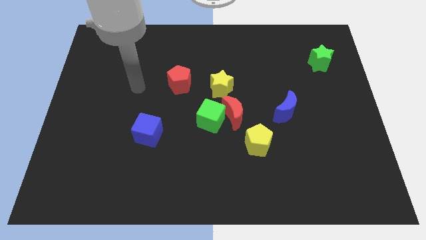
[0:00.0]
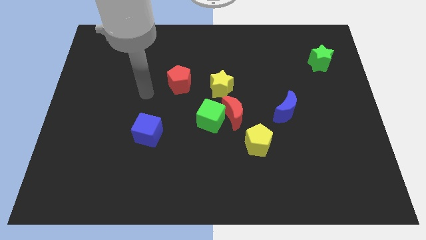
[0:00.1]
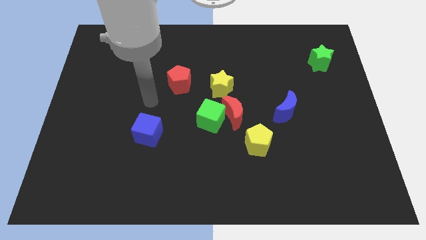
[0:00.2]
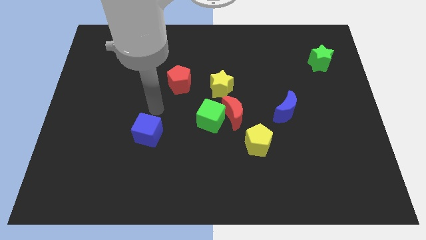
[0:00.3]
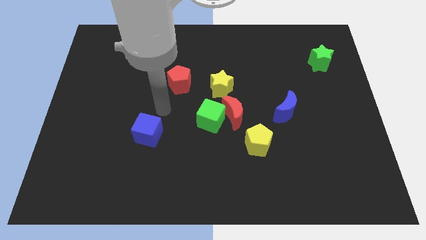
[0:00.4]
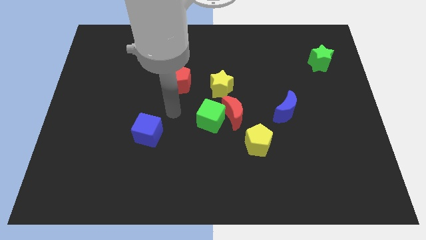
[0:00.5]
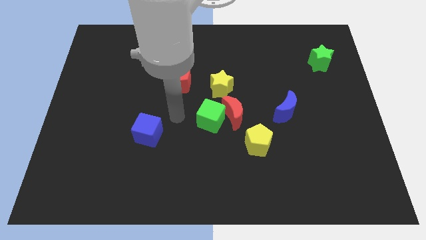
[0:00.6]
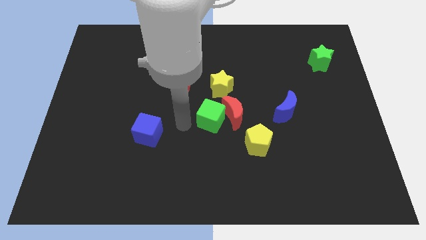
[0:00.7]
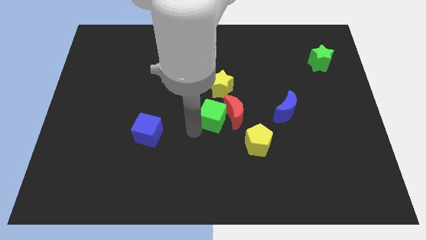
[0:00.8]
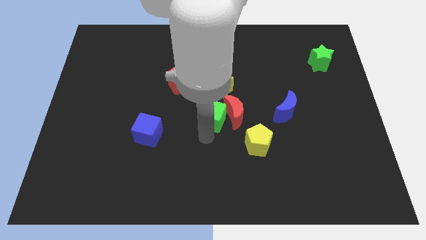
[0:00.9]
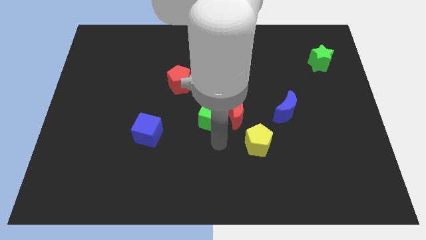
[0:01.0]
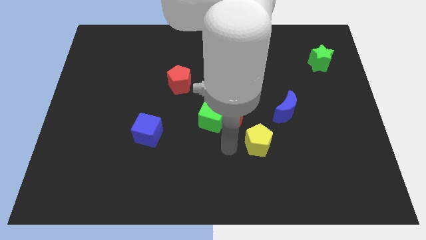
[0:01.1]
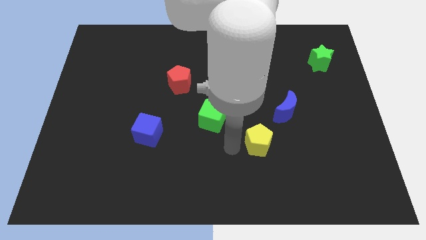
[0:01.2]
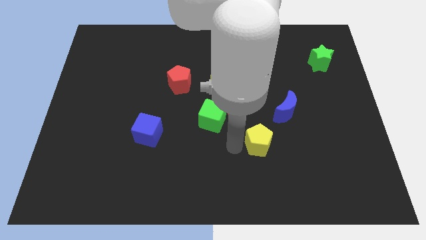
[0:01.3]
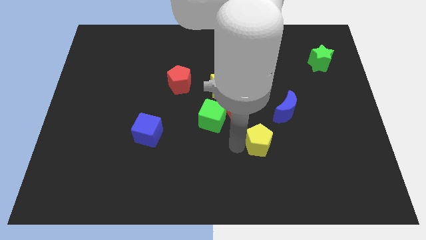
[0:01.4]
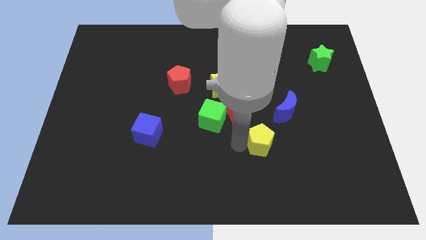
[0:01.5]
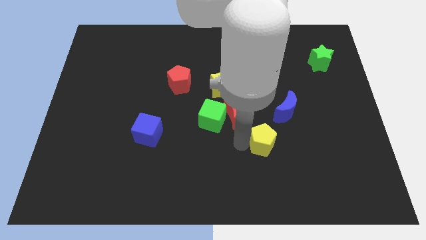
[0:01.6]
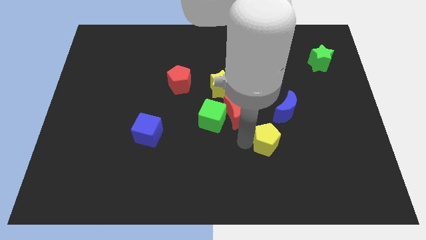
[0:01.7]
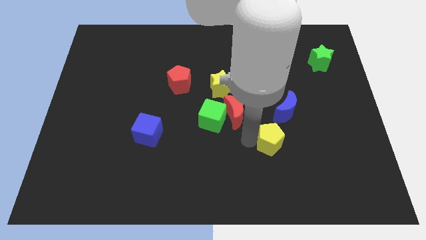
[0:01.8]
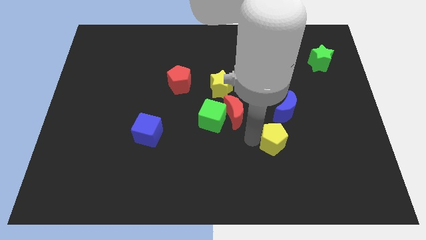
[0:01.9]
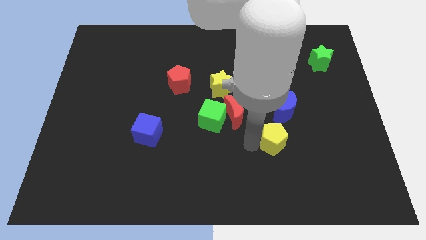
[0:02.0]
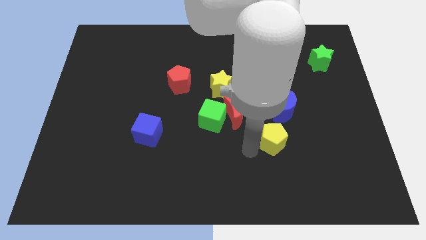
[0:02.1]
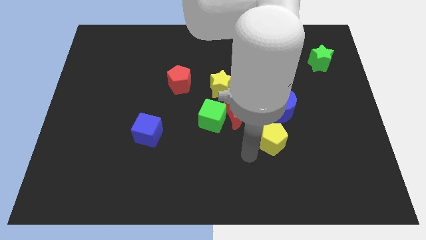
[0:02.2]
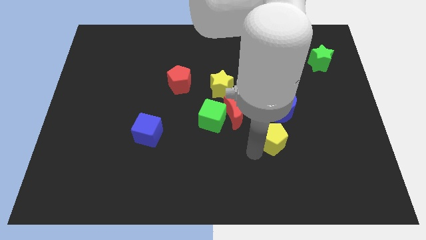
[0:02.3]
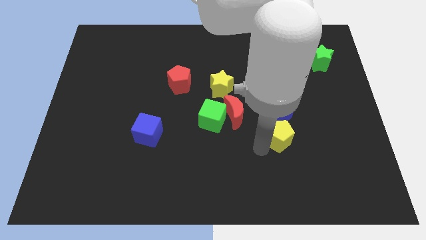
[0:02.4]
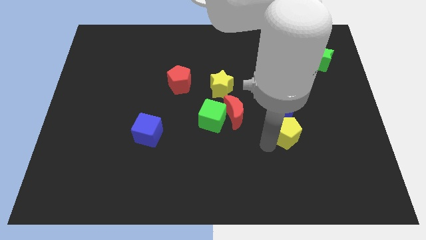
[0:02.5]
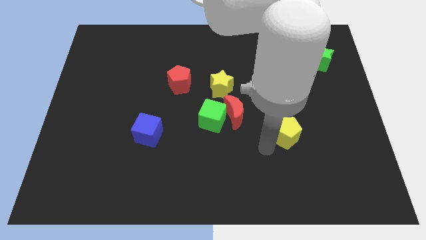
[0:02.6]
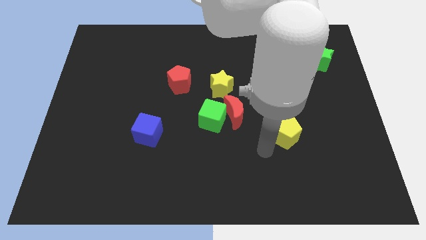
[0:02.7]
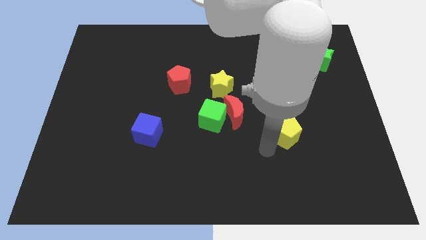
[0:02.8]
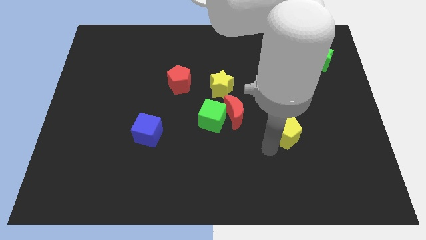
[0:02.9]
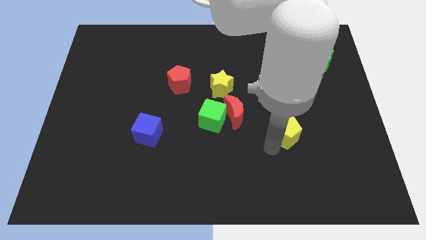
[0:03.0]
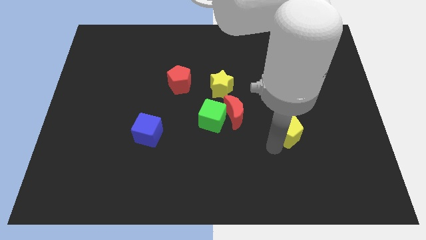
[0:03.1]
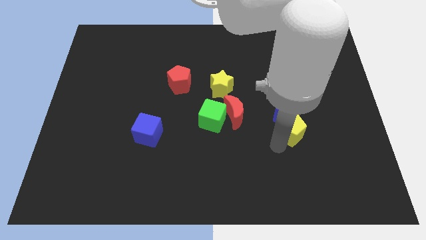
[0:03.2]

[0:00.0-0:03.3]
move the yellow pentagon a little upwards and right diagonally

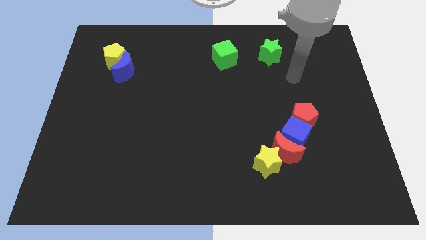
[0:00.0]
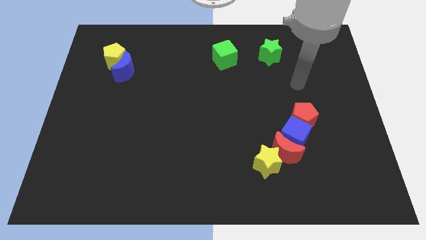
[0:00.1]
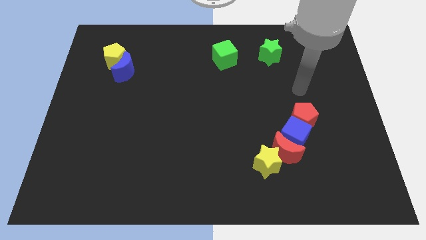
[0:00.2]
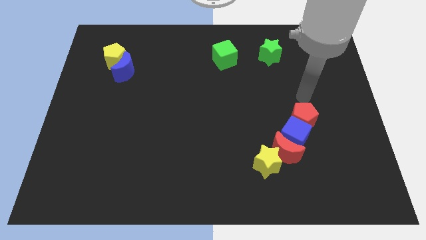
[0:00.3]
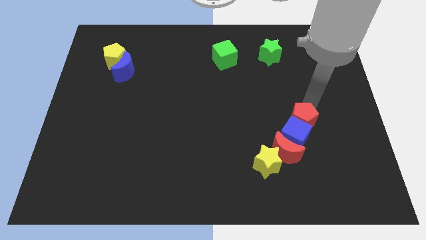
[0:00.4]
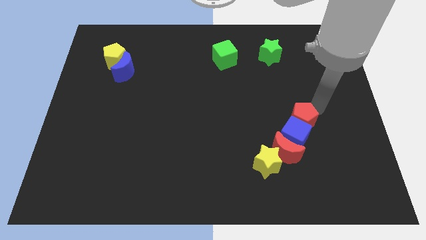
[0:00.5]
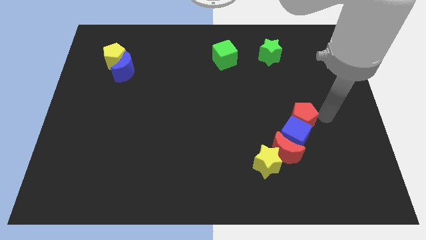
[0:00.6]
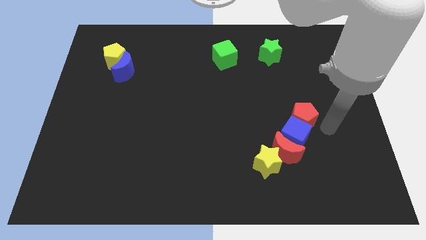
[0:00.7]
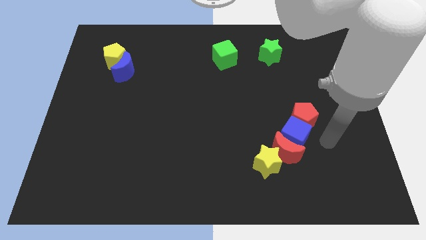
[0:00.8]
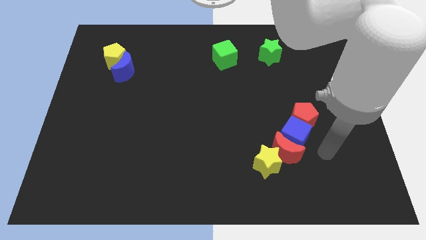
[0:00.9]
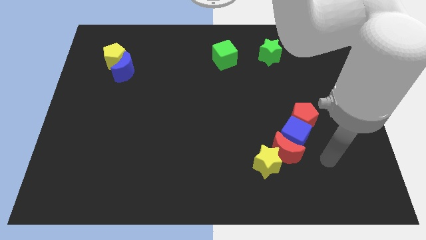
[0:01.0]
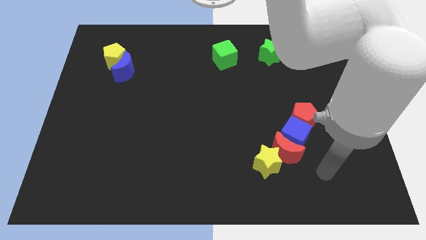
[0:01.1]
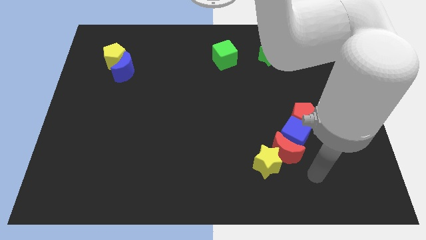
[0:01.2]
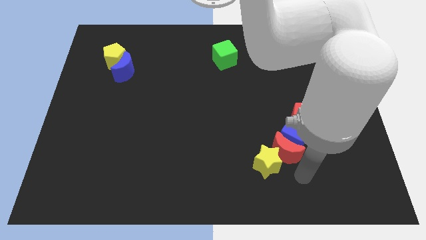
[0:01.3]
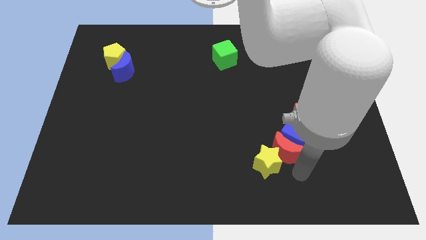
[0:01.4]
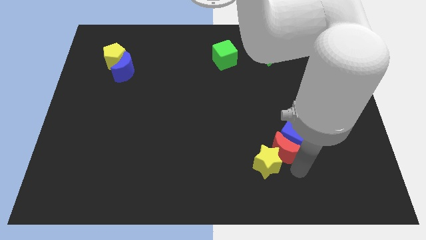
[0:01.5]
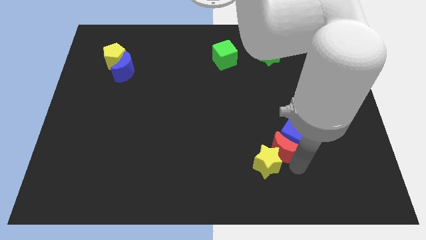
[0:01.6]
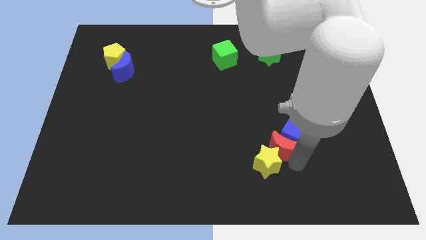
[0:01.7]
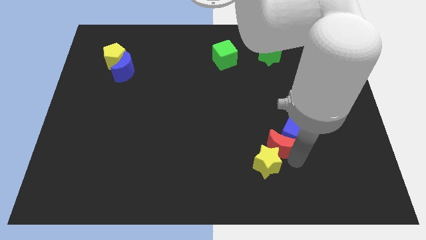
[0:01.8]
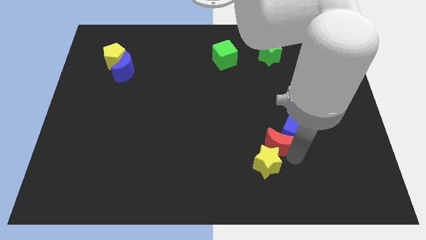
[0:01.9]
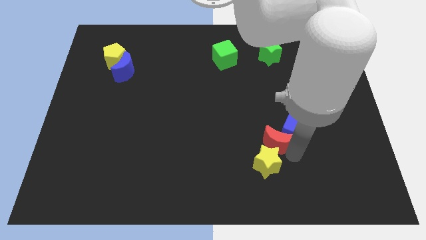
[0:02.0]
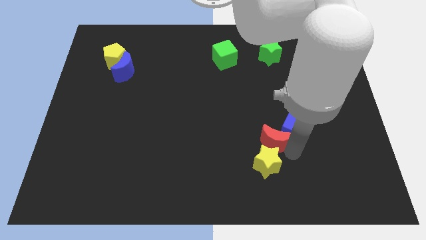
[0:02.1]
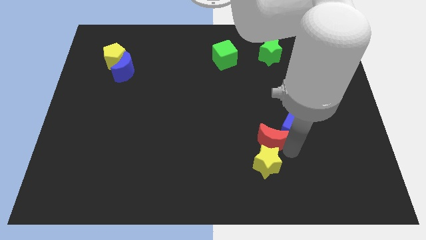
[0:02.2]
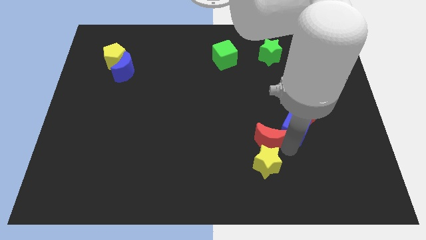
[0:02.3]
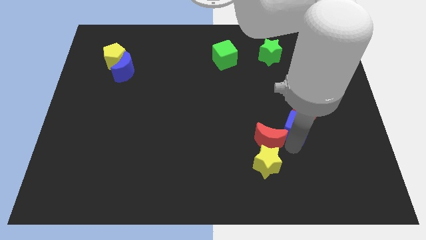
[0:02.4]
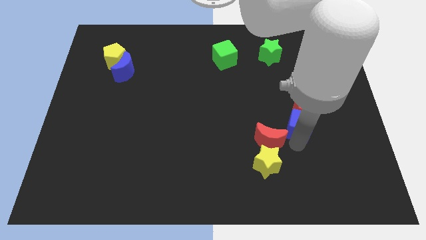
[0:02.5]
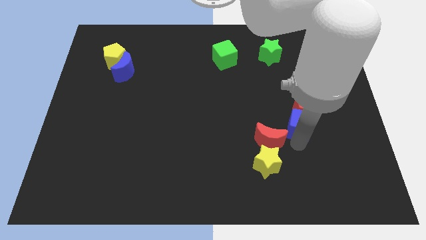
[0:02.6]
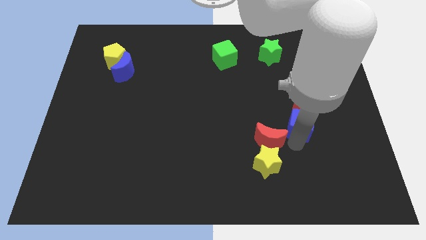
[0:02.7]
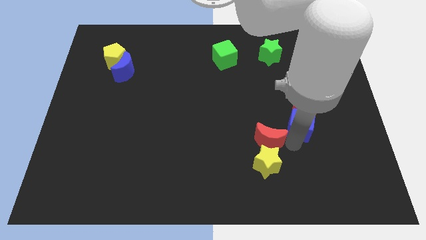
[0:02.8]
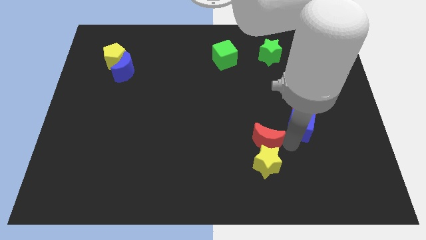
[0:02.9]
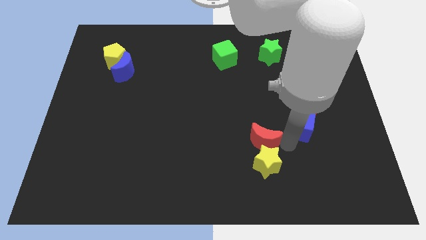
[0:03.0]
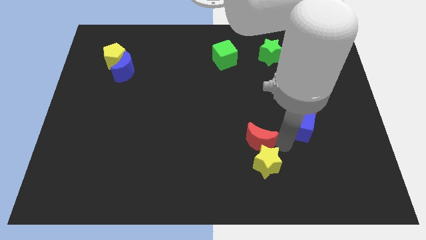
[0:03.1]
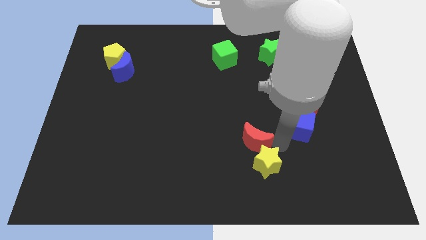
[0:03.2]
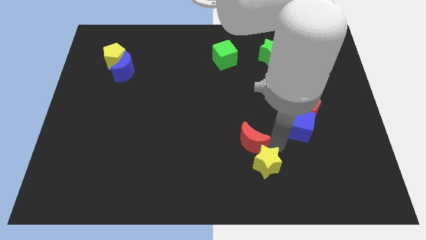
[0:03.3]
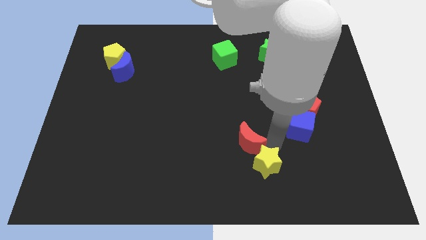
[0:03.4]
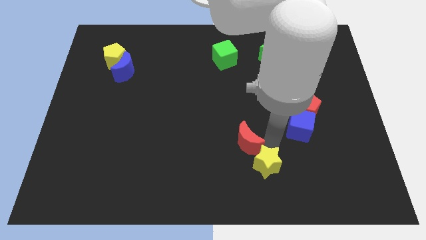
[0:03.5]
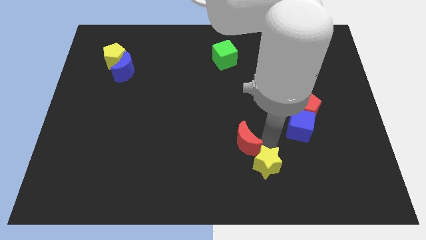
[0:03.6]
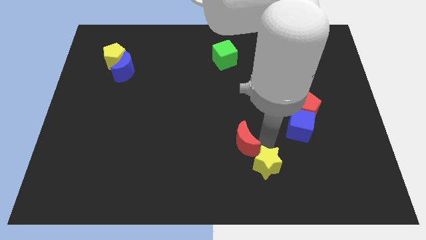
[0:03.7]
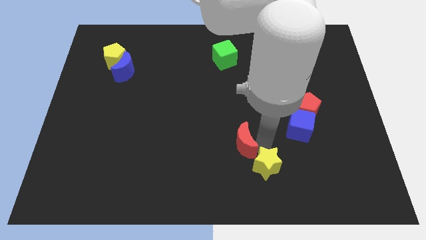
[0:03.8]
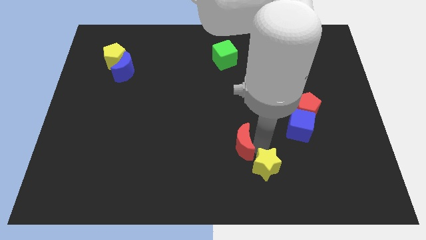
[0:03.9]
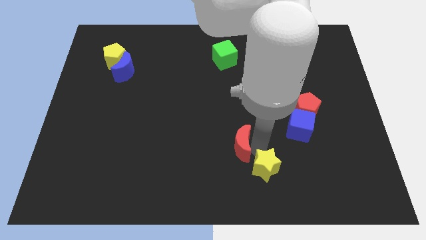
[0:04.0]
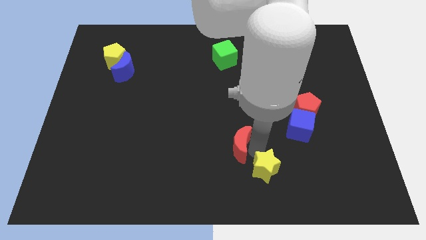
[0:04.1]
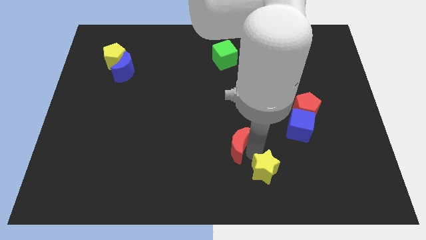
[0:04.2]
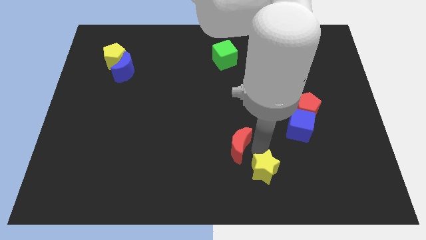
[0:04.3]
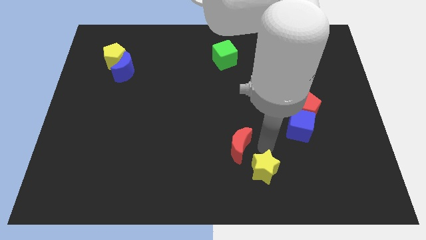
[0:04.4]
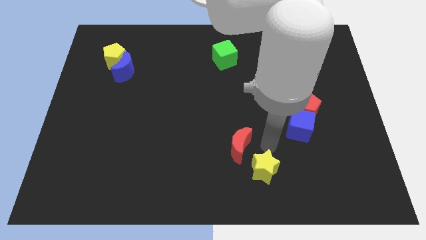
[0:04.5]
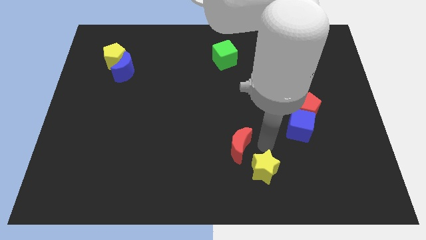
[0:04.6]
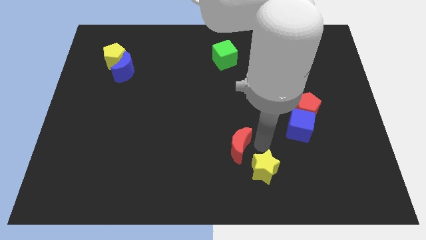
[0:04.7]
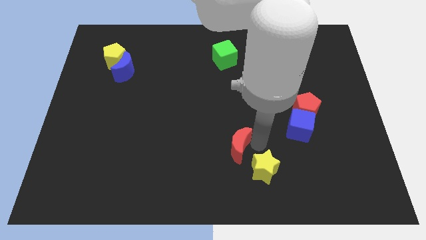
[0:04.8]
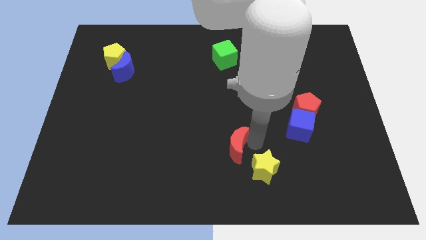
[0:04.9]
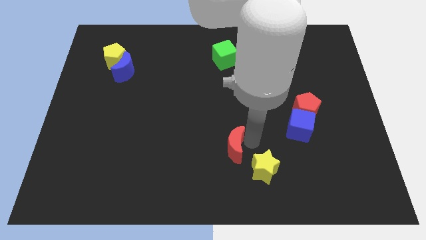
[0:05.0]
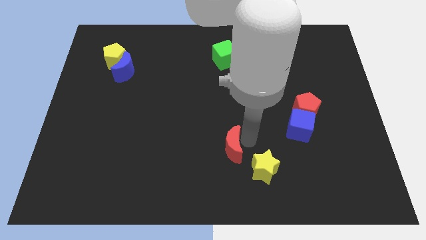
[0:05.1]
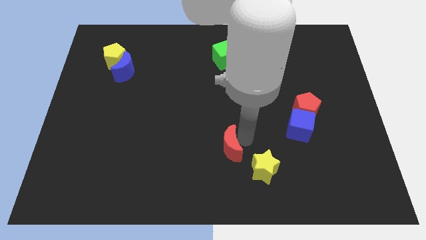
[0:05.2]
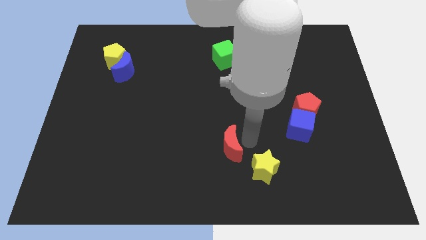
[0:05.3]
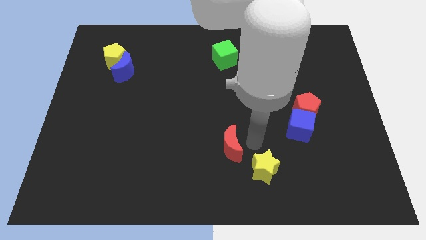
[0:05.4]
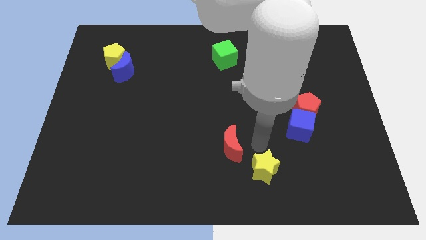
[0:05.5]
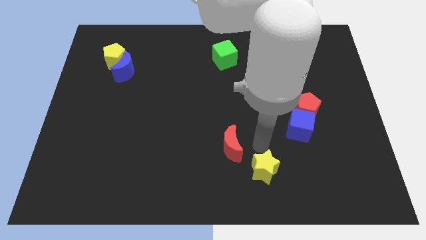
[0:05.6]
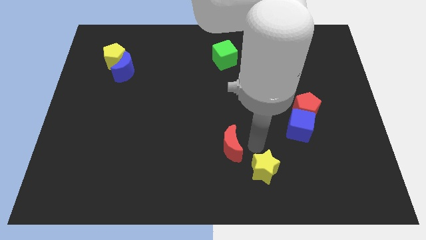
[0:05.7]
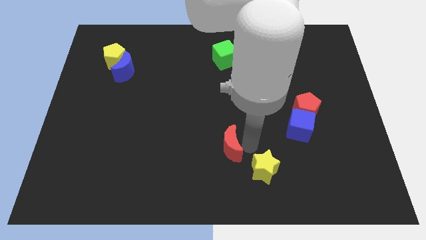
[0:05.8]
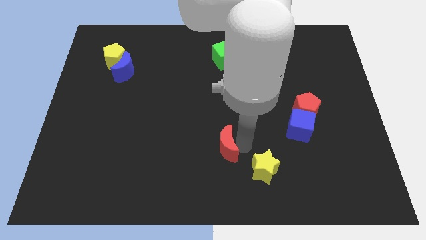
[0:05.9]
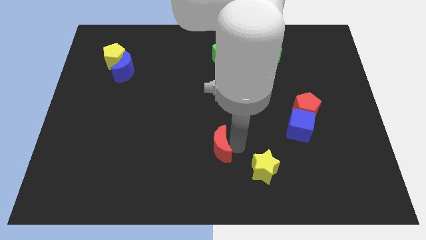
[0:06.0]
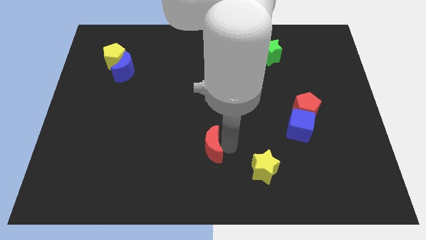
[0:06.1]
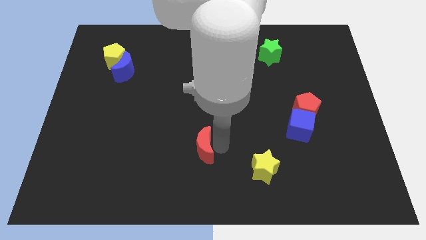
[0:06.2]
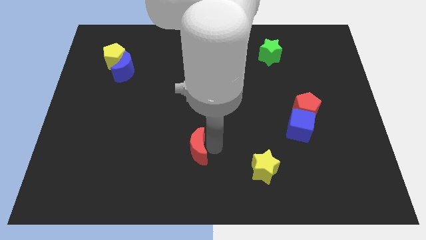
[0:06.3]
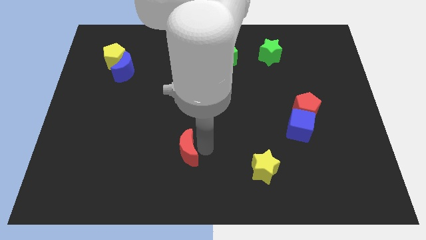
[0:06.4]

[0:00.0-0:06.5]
slide the red moon left
